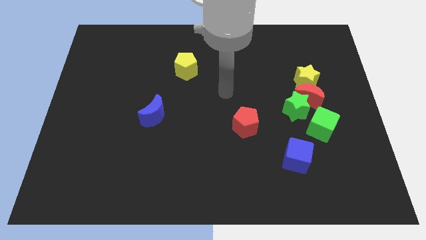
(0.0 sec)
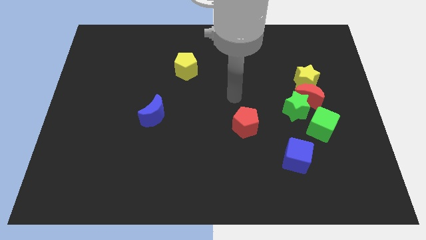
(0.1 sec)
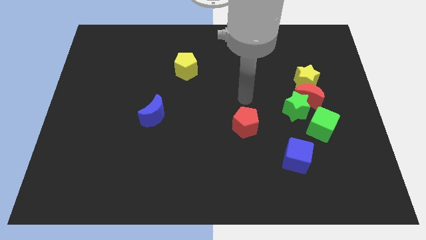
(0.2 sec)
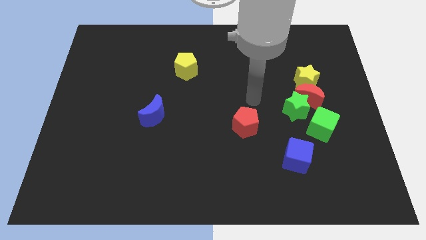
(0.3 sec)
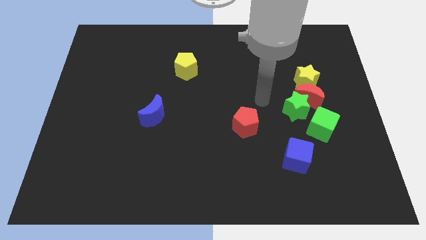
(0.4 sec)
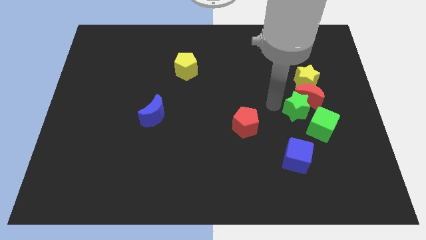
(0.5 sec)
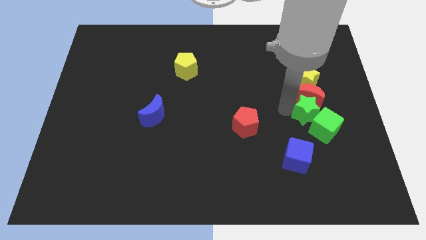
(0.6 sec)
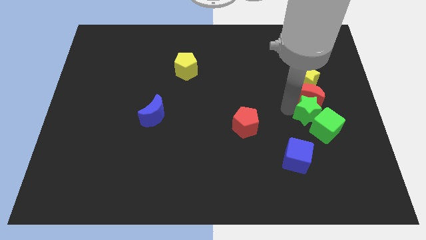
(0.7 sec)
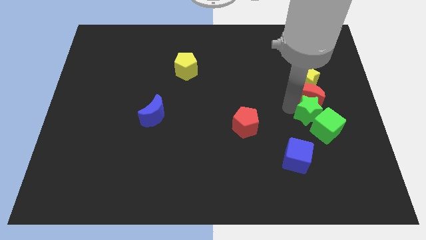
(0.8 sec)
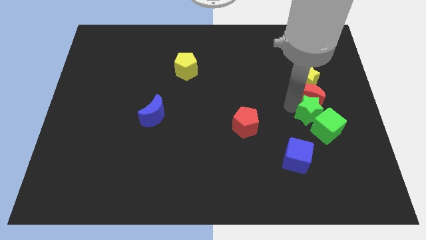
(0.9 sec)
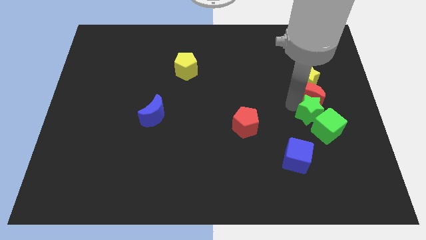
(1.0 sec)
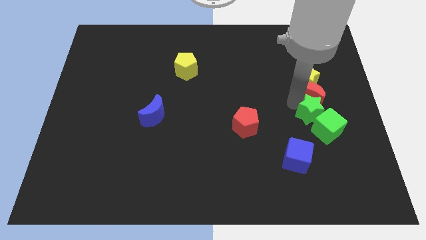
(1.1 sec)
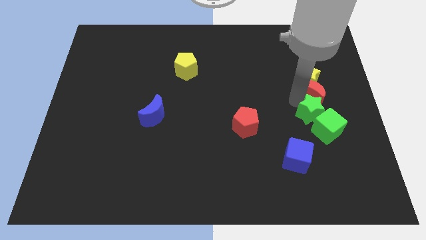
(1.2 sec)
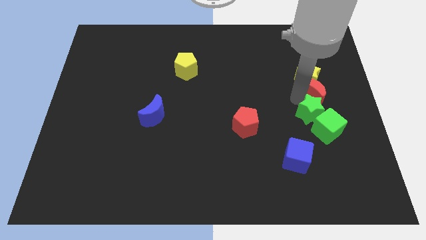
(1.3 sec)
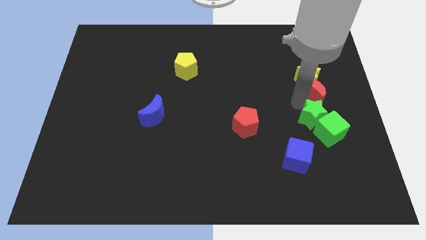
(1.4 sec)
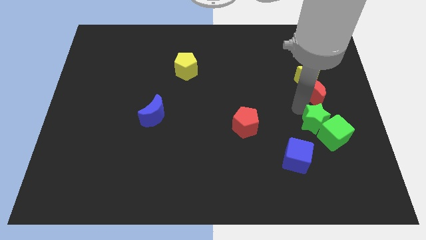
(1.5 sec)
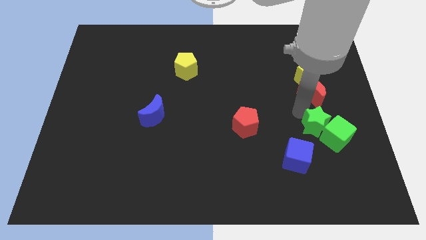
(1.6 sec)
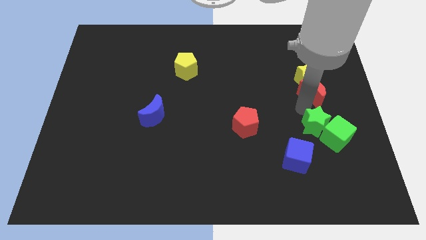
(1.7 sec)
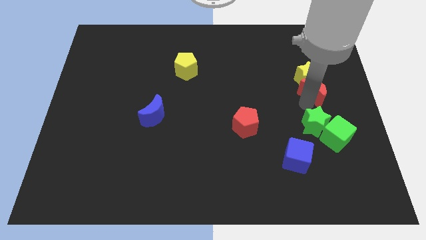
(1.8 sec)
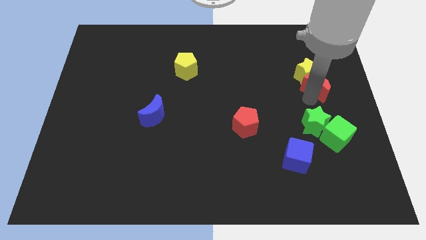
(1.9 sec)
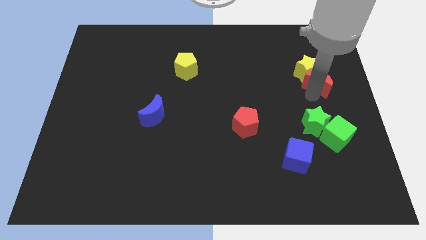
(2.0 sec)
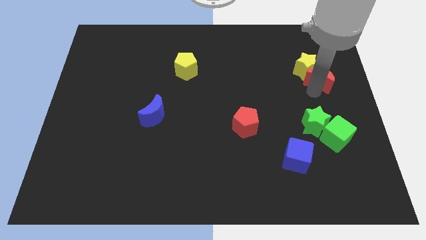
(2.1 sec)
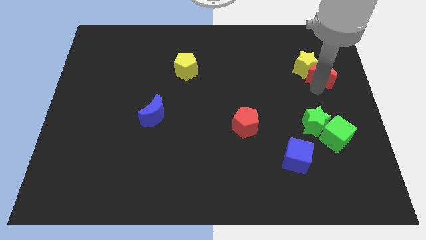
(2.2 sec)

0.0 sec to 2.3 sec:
separate the red moon from the green star, yellow star, and green cube

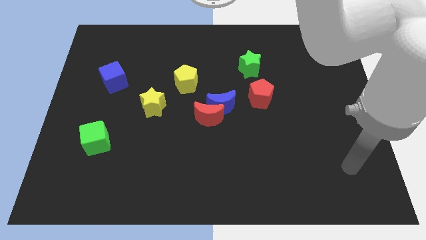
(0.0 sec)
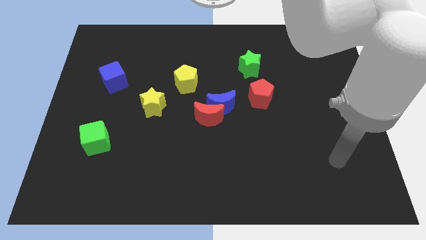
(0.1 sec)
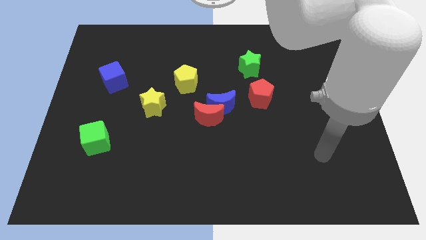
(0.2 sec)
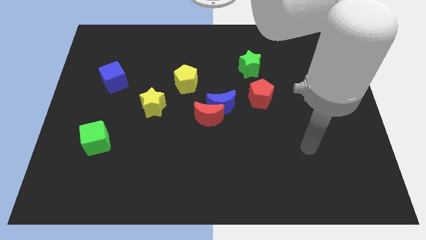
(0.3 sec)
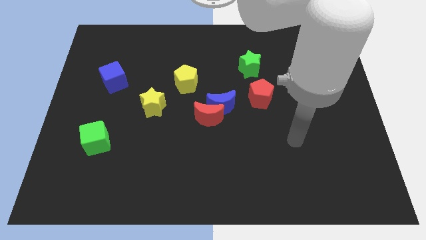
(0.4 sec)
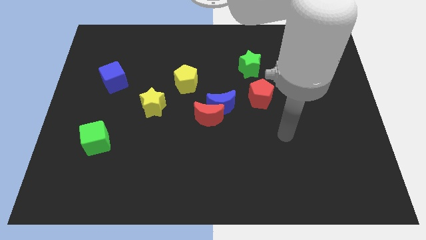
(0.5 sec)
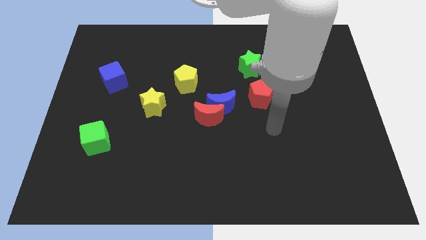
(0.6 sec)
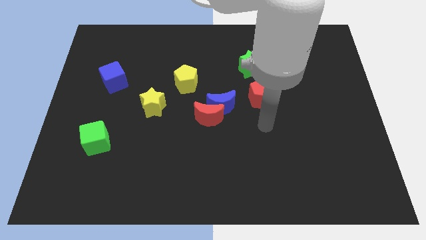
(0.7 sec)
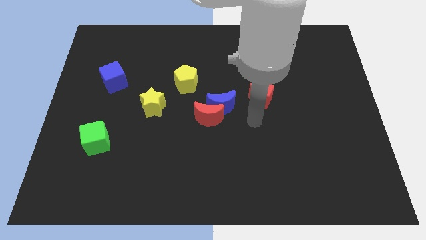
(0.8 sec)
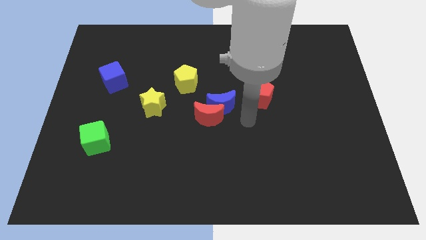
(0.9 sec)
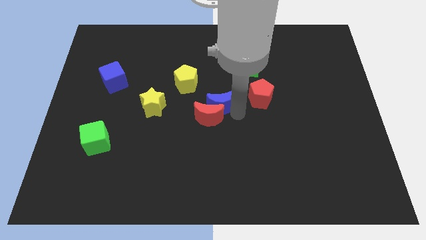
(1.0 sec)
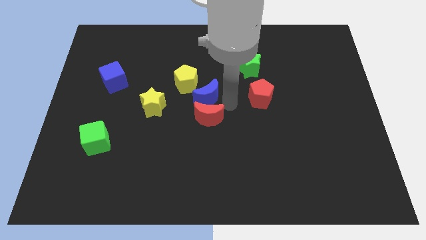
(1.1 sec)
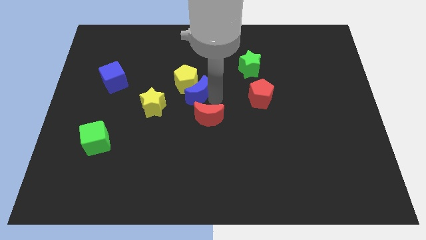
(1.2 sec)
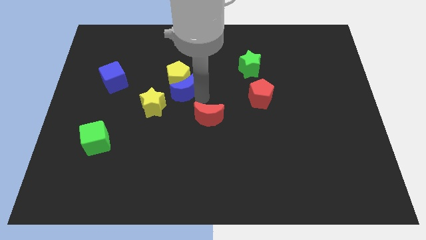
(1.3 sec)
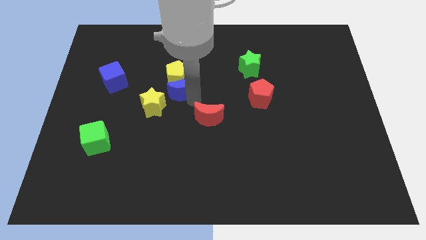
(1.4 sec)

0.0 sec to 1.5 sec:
pull the red moon apart from the blue moon

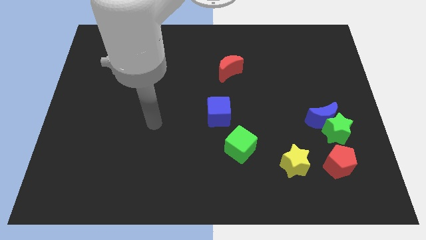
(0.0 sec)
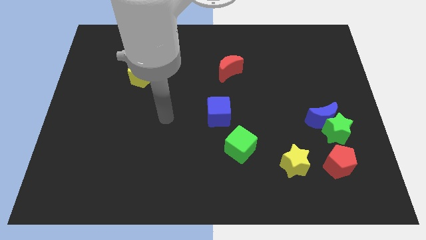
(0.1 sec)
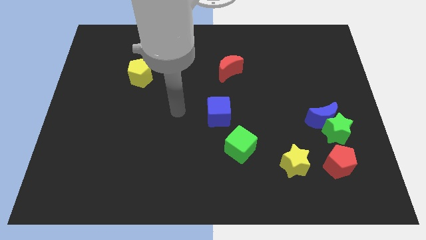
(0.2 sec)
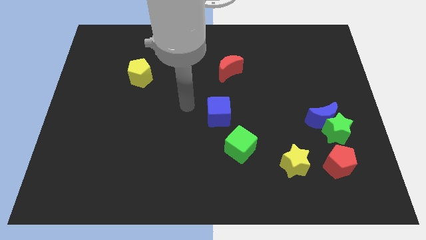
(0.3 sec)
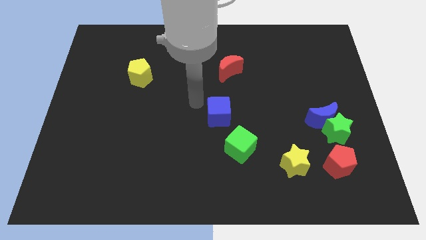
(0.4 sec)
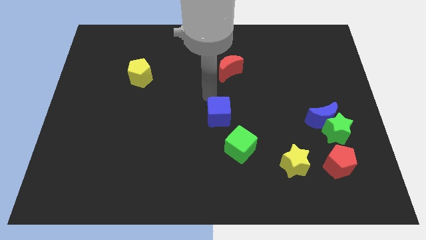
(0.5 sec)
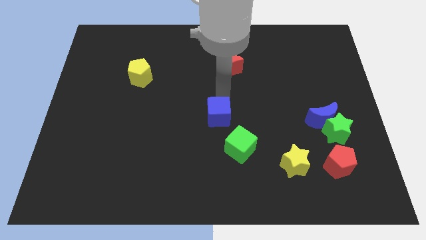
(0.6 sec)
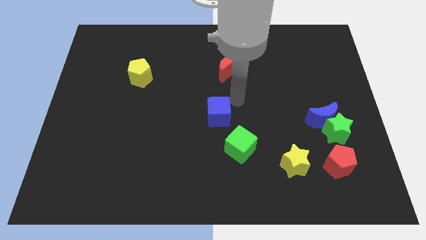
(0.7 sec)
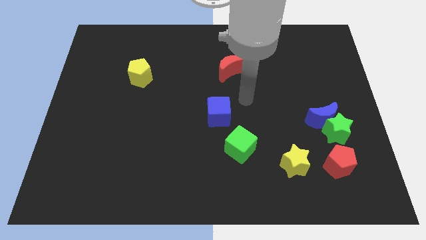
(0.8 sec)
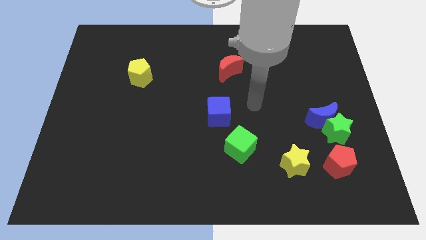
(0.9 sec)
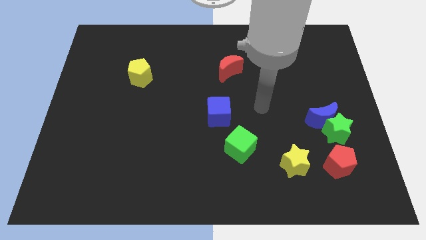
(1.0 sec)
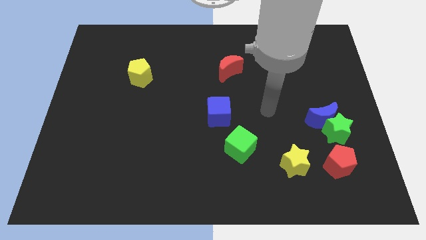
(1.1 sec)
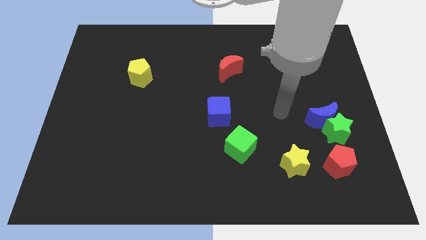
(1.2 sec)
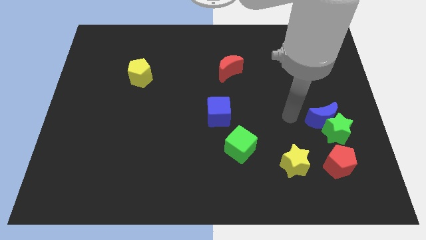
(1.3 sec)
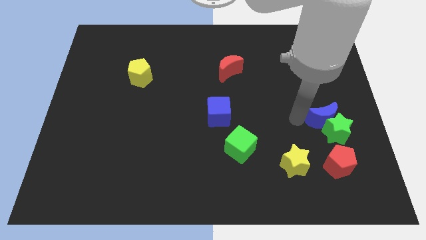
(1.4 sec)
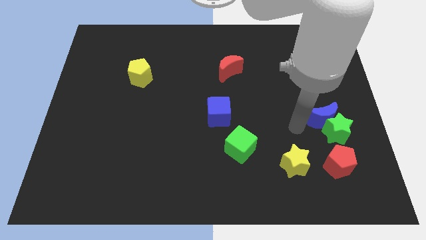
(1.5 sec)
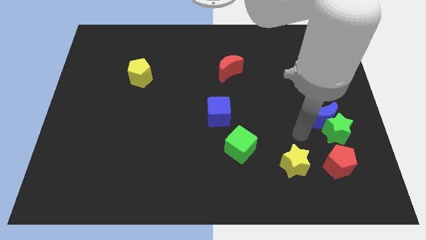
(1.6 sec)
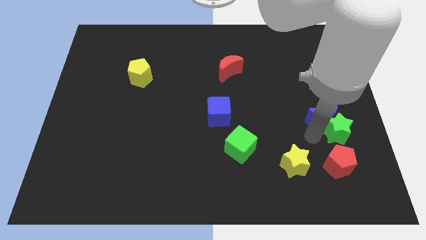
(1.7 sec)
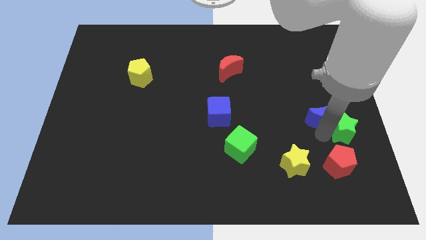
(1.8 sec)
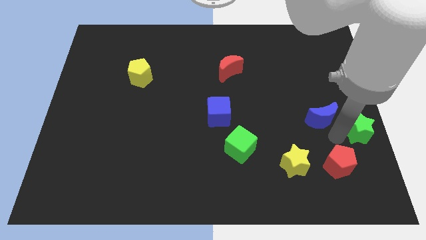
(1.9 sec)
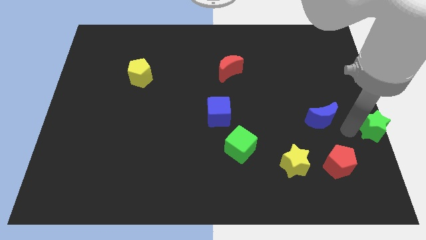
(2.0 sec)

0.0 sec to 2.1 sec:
move the blue moon away from the green star

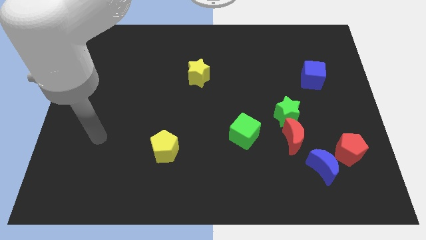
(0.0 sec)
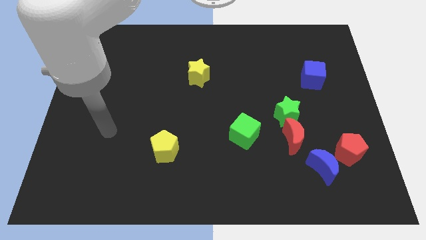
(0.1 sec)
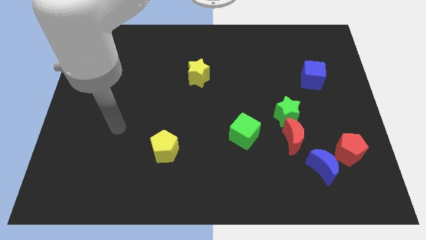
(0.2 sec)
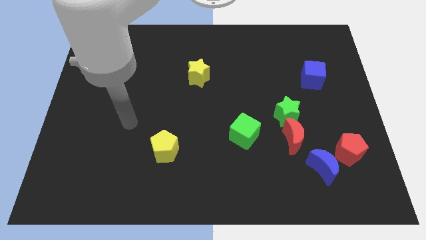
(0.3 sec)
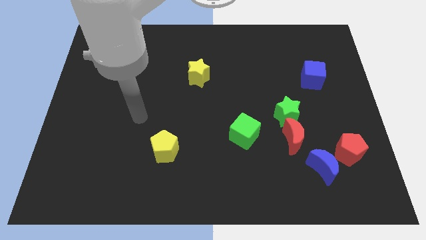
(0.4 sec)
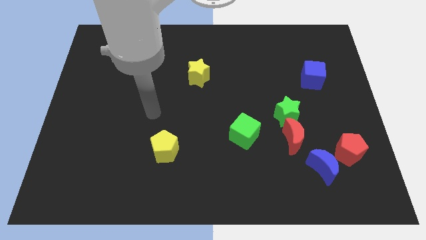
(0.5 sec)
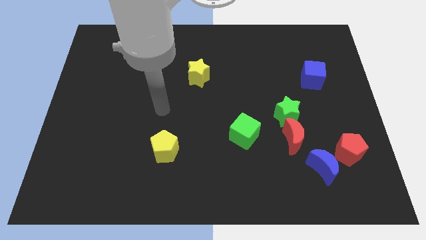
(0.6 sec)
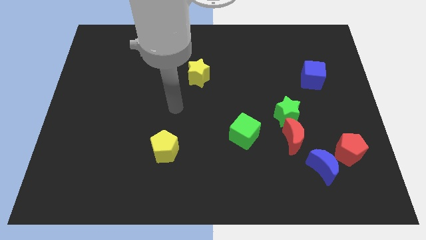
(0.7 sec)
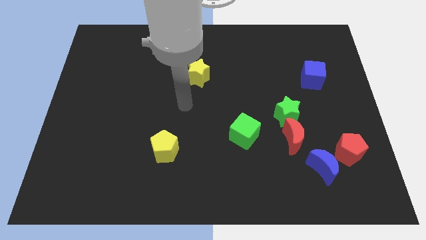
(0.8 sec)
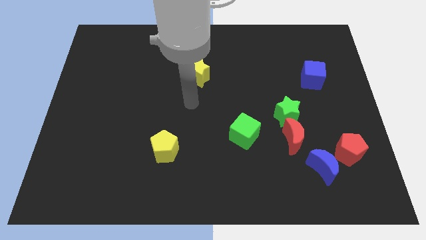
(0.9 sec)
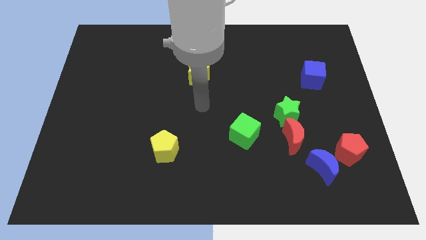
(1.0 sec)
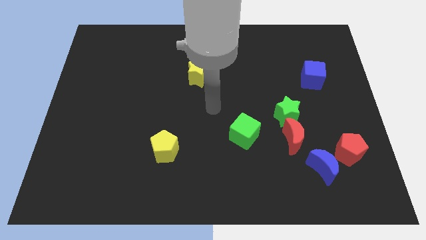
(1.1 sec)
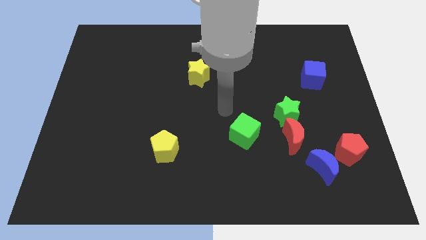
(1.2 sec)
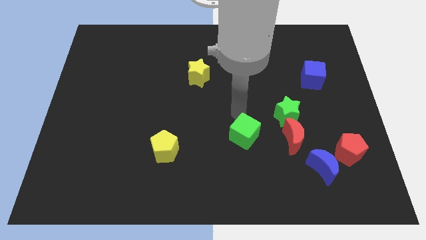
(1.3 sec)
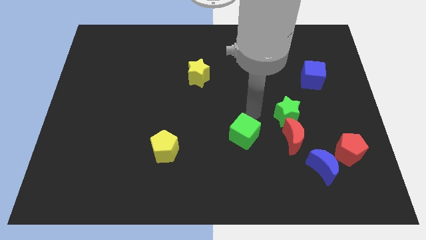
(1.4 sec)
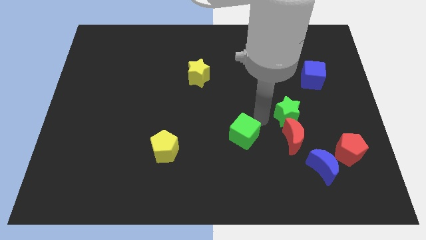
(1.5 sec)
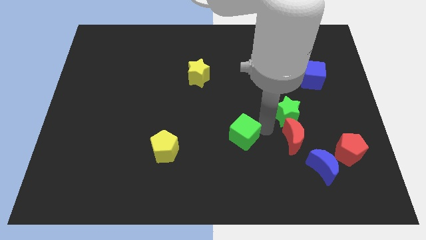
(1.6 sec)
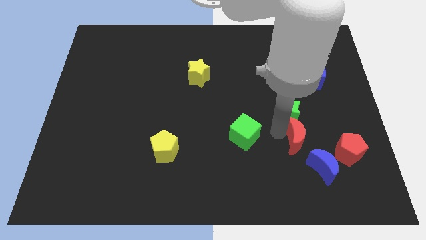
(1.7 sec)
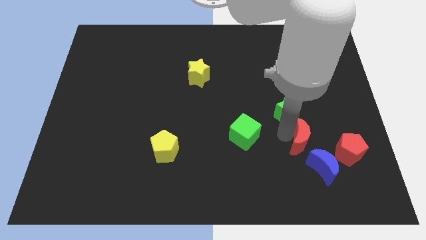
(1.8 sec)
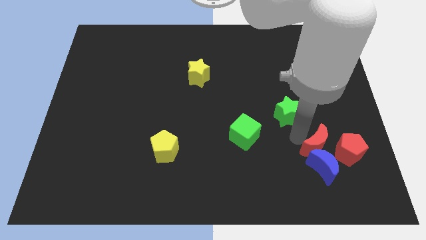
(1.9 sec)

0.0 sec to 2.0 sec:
pull the green star apart from the red moon

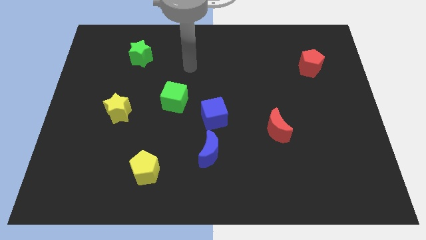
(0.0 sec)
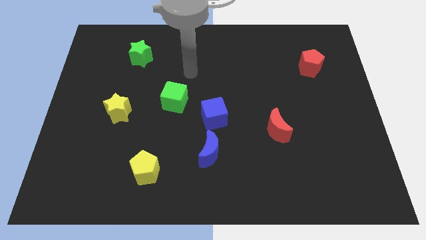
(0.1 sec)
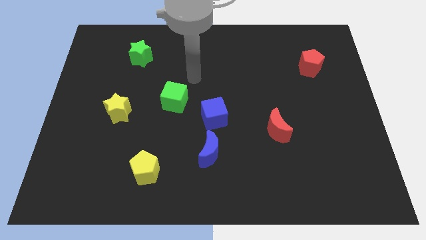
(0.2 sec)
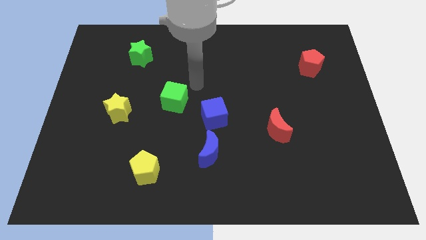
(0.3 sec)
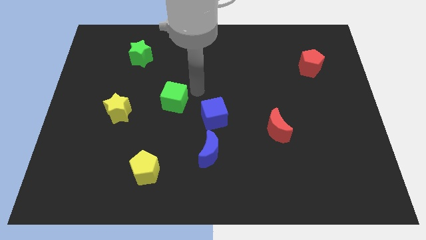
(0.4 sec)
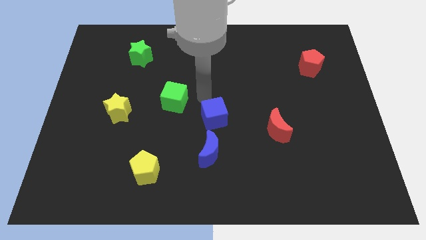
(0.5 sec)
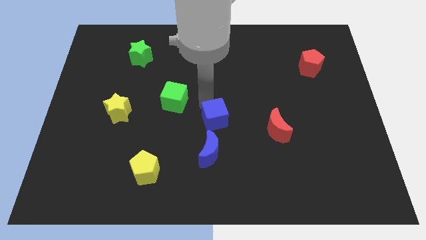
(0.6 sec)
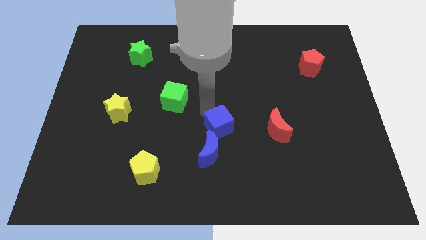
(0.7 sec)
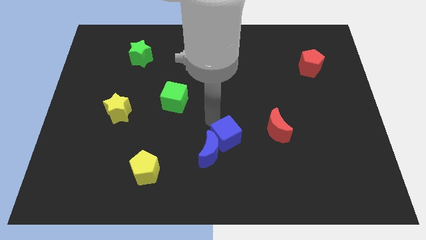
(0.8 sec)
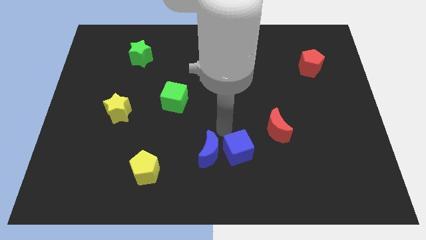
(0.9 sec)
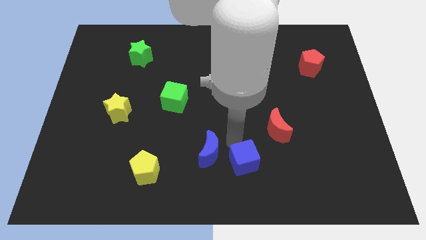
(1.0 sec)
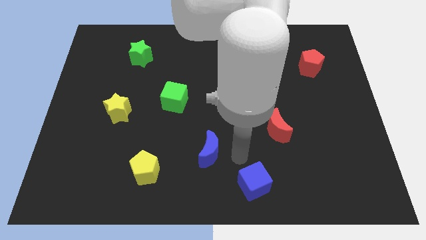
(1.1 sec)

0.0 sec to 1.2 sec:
move the blue moon away from the blue cube

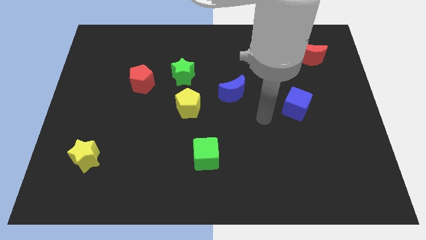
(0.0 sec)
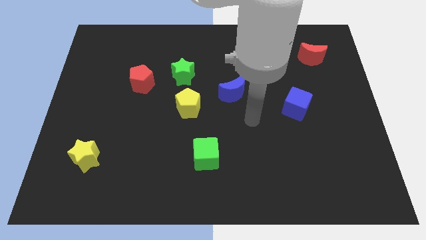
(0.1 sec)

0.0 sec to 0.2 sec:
separate the green star from the yellow pentagon
